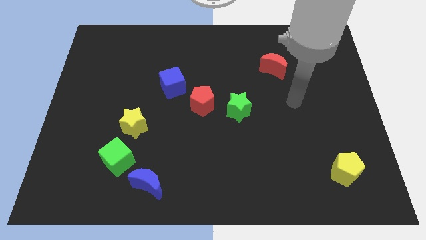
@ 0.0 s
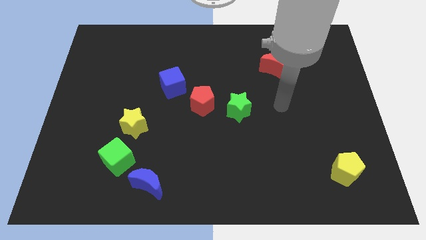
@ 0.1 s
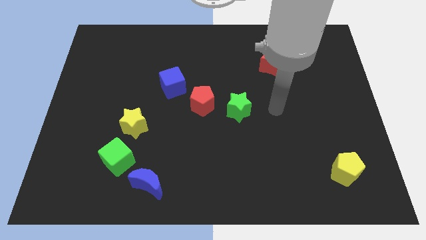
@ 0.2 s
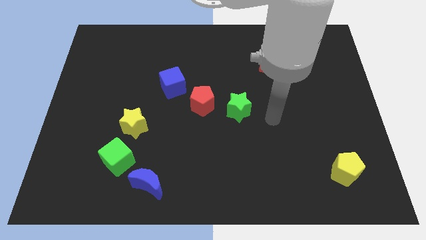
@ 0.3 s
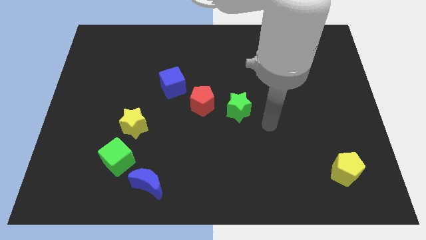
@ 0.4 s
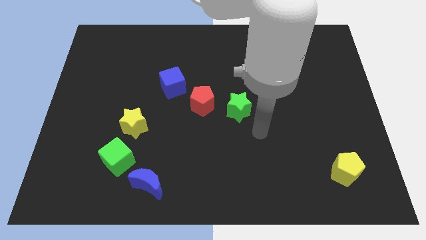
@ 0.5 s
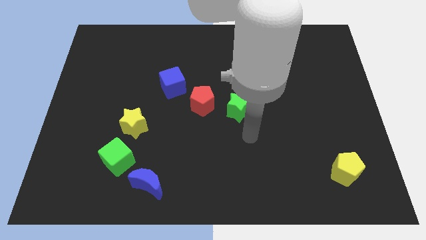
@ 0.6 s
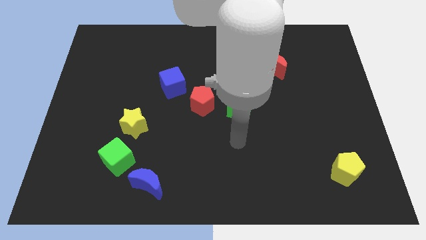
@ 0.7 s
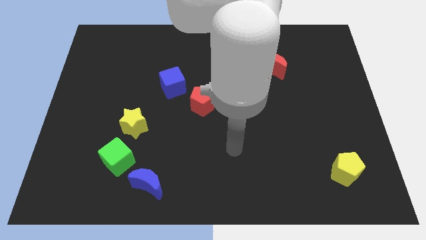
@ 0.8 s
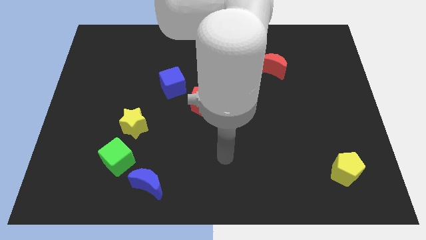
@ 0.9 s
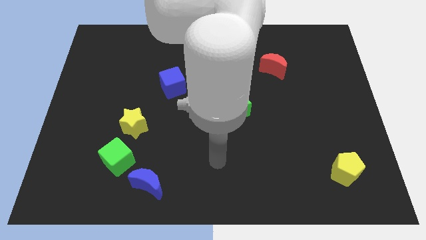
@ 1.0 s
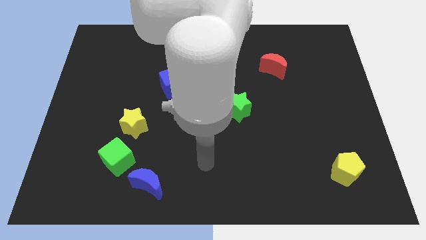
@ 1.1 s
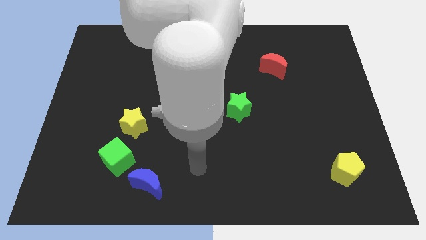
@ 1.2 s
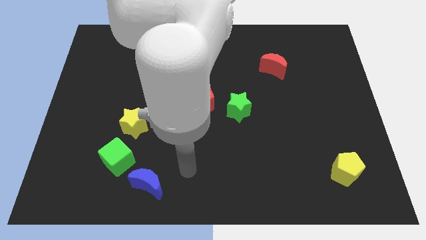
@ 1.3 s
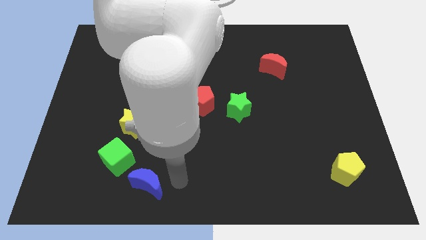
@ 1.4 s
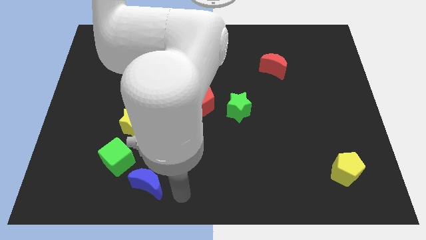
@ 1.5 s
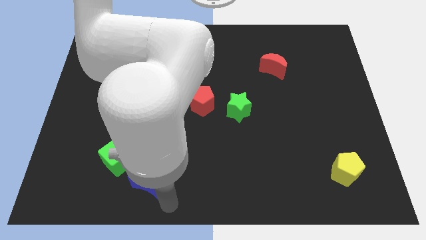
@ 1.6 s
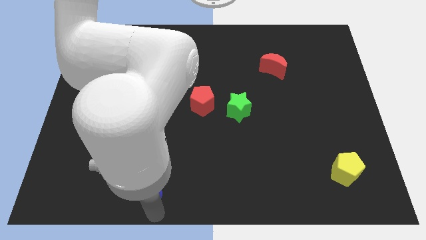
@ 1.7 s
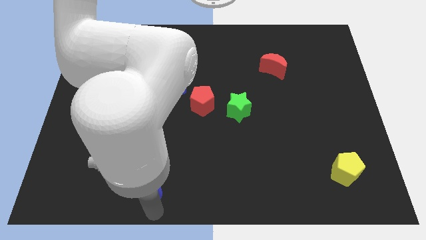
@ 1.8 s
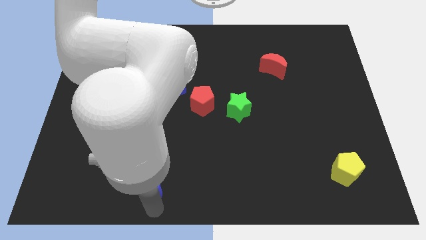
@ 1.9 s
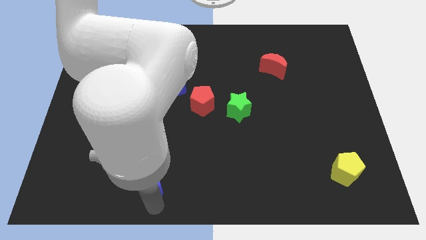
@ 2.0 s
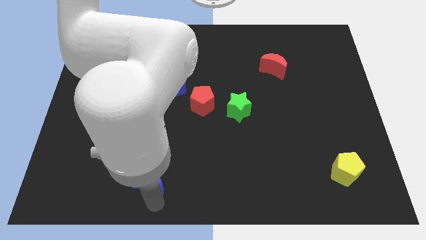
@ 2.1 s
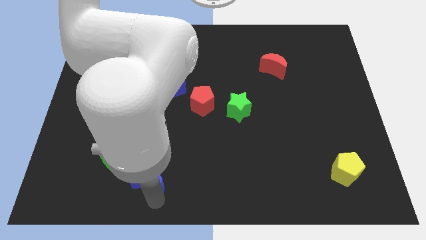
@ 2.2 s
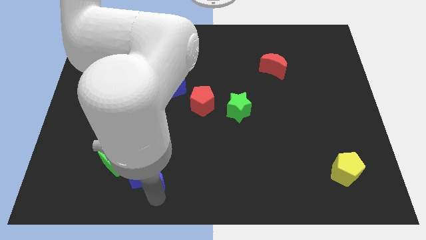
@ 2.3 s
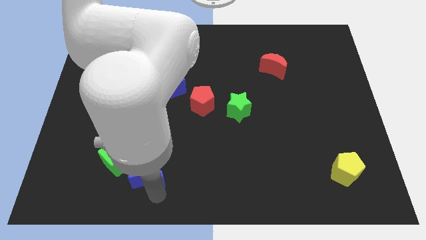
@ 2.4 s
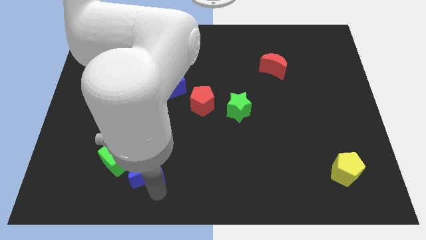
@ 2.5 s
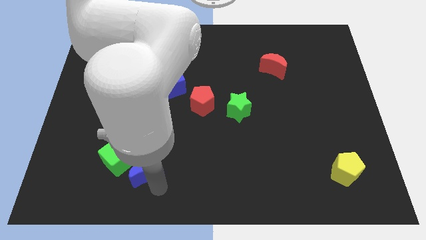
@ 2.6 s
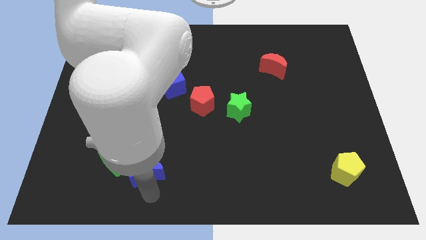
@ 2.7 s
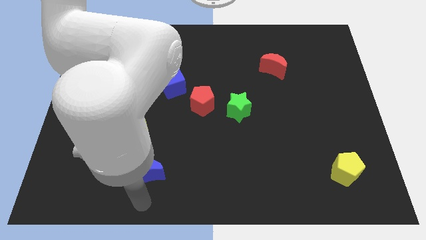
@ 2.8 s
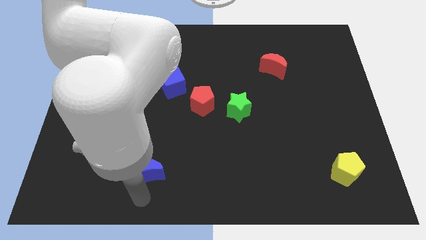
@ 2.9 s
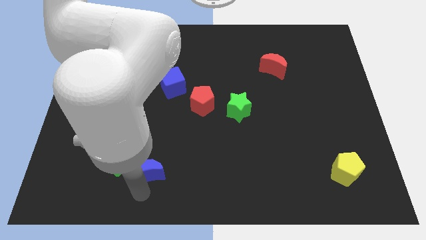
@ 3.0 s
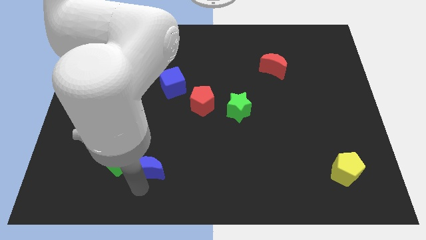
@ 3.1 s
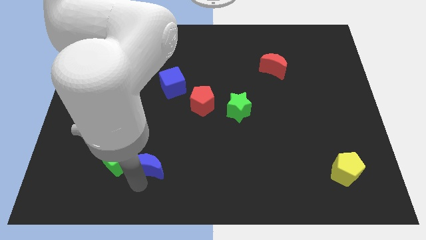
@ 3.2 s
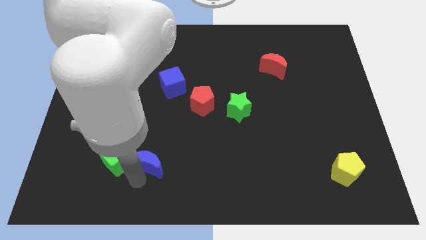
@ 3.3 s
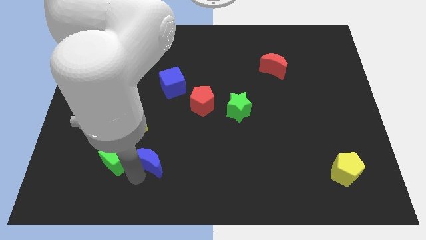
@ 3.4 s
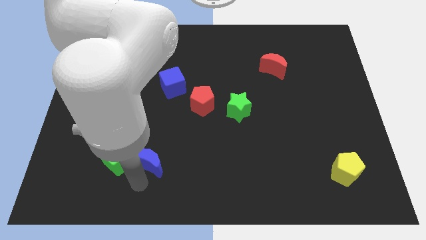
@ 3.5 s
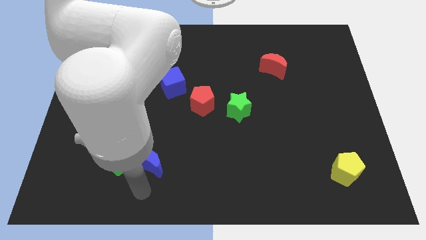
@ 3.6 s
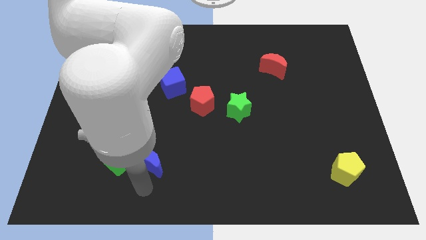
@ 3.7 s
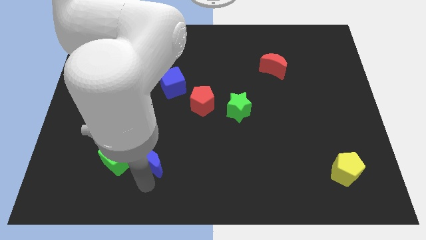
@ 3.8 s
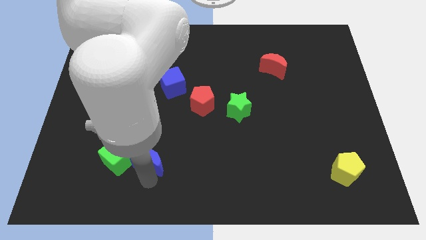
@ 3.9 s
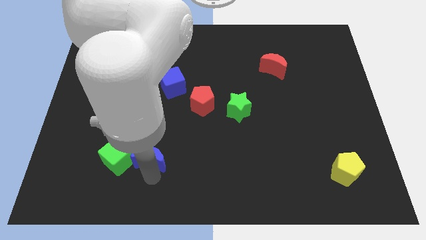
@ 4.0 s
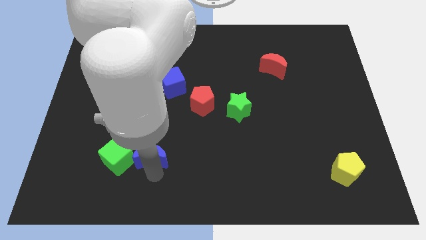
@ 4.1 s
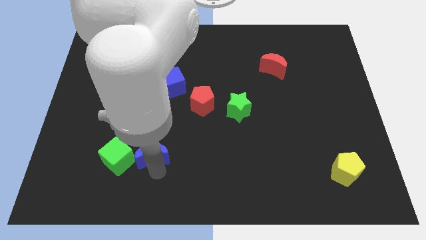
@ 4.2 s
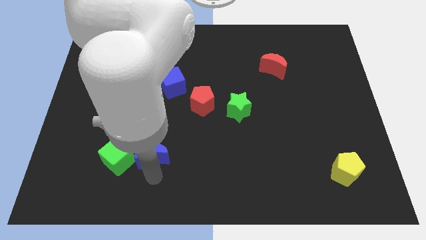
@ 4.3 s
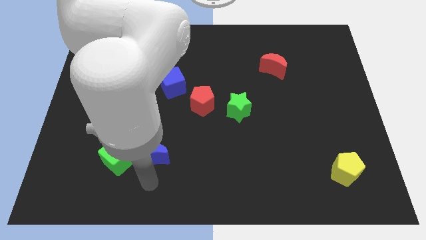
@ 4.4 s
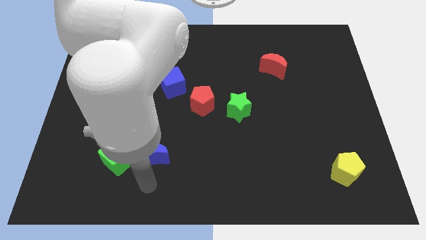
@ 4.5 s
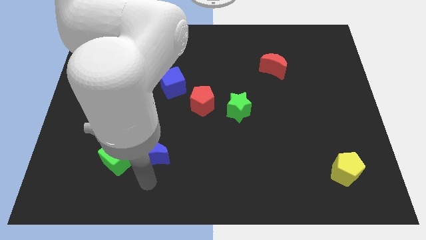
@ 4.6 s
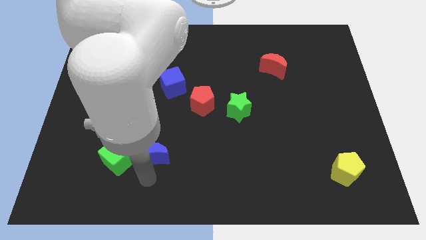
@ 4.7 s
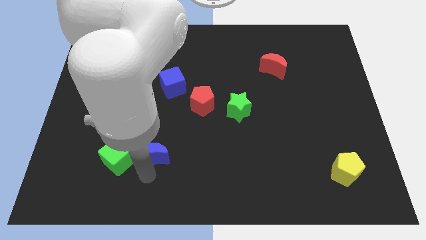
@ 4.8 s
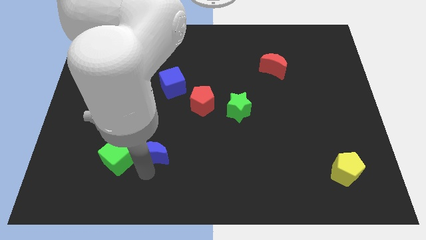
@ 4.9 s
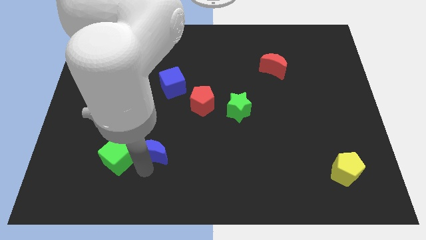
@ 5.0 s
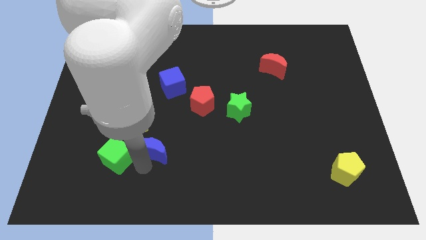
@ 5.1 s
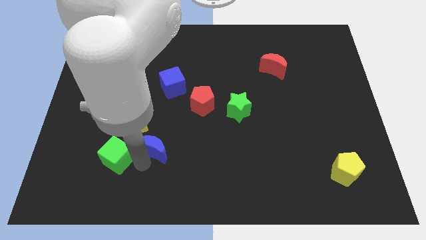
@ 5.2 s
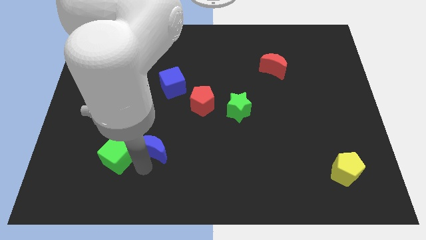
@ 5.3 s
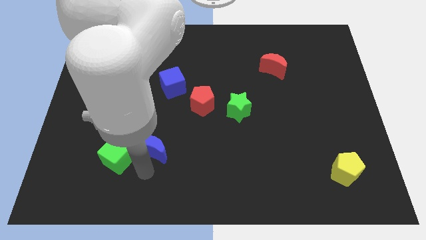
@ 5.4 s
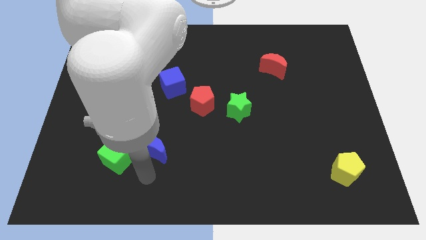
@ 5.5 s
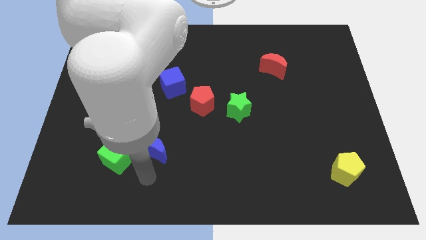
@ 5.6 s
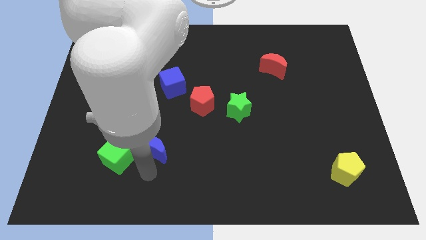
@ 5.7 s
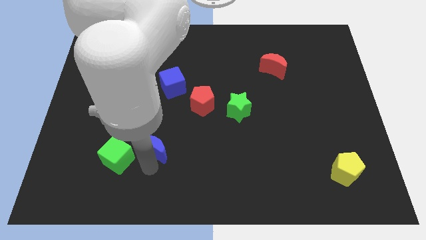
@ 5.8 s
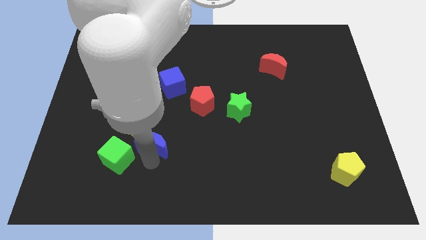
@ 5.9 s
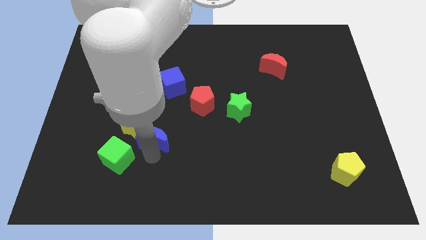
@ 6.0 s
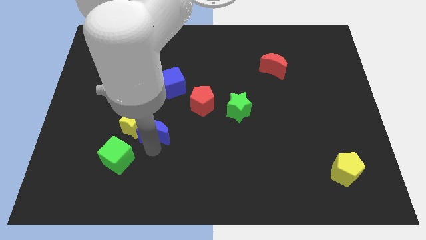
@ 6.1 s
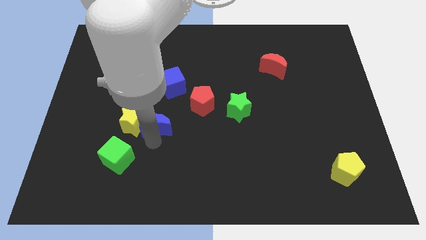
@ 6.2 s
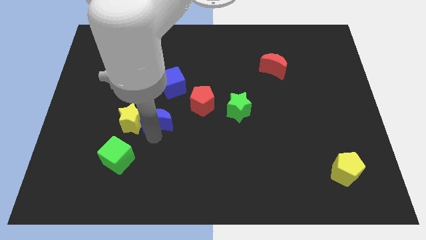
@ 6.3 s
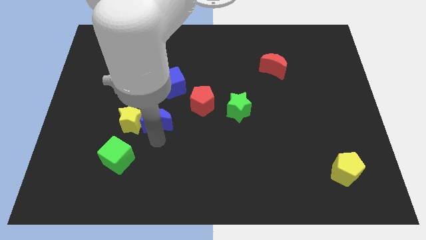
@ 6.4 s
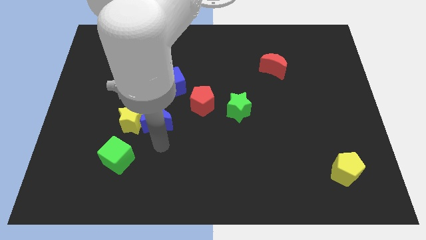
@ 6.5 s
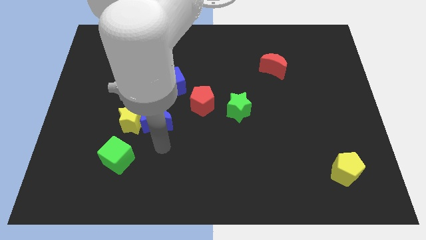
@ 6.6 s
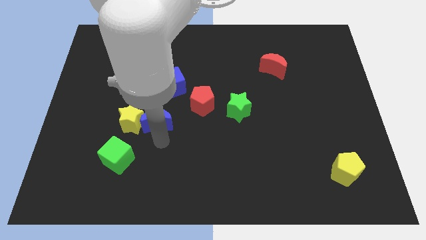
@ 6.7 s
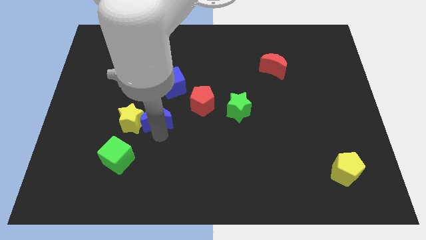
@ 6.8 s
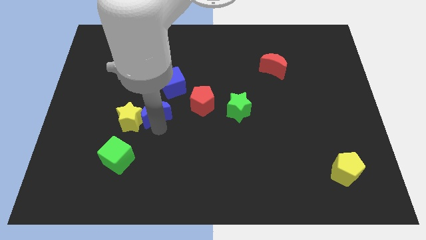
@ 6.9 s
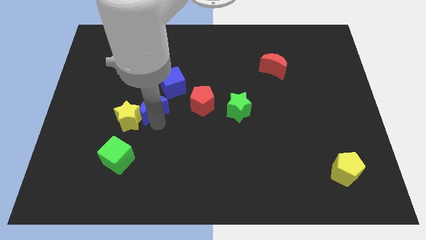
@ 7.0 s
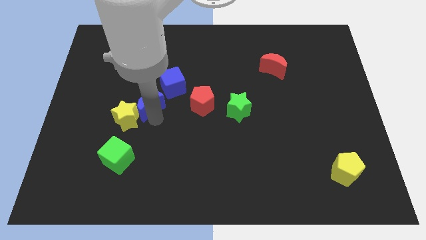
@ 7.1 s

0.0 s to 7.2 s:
push the blue moon up

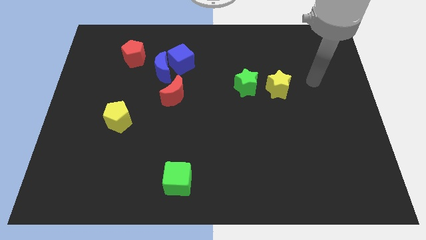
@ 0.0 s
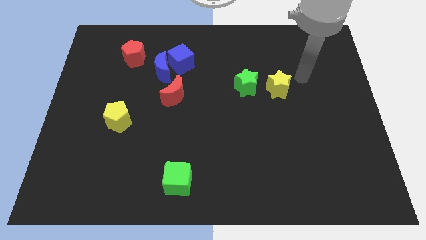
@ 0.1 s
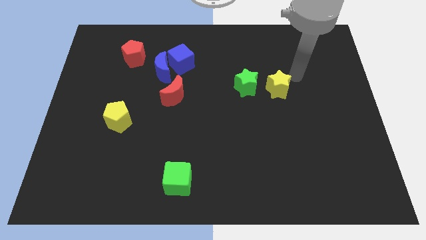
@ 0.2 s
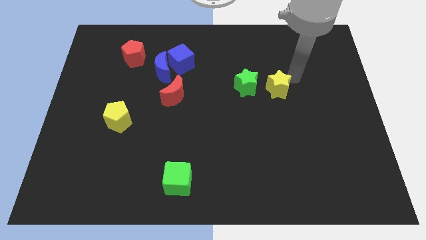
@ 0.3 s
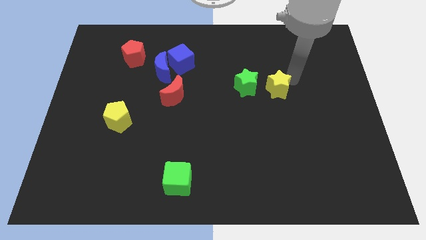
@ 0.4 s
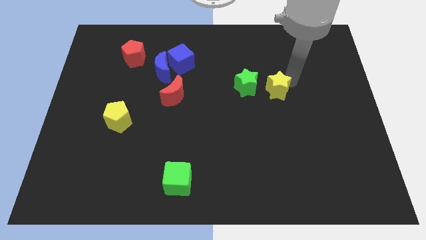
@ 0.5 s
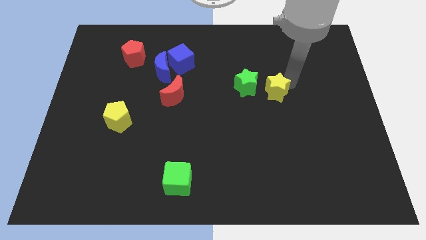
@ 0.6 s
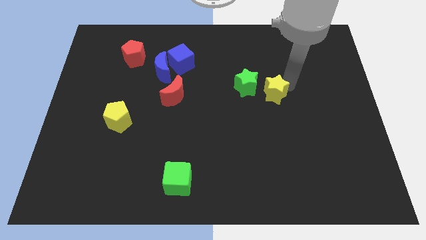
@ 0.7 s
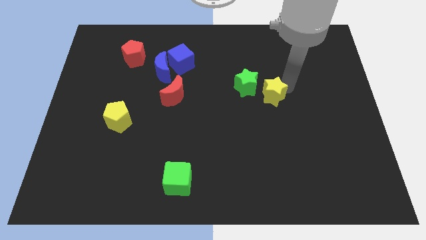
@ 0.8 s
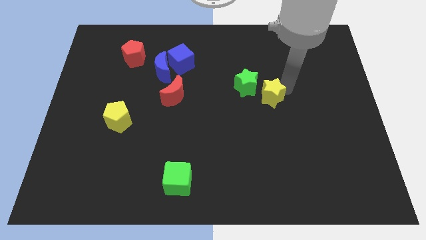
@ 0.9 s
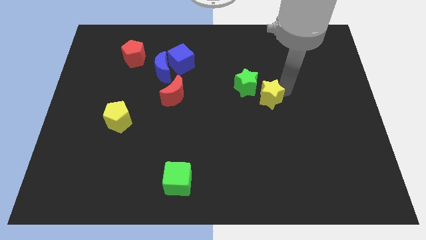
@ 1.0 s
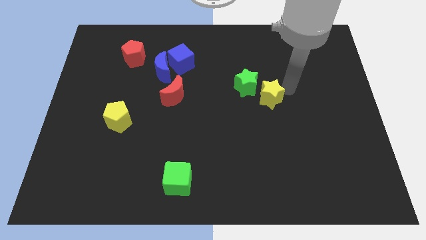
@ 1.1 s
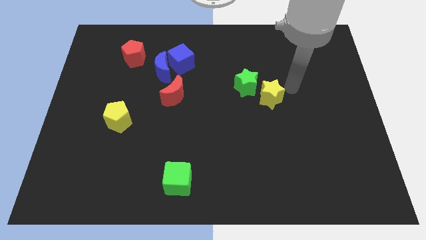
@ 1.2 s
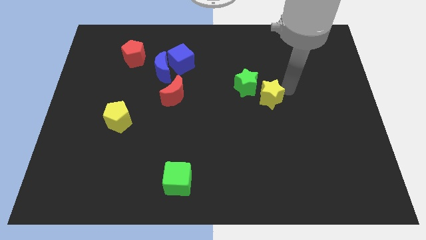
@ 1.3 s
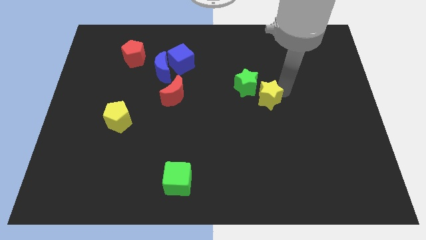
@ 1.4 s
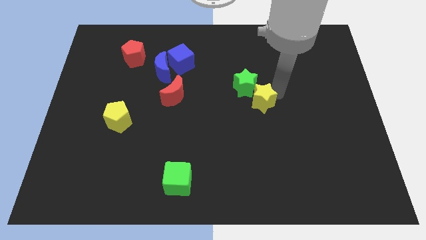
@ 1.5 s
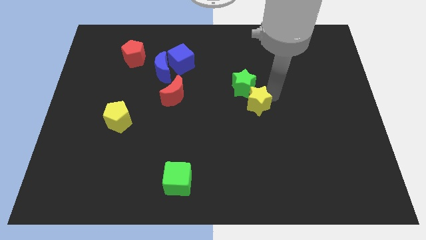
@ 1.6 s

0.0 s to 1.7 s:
push the yellow star somewhat down and then left
